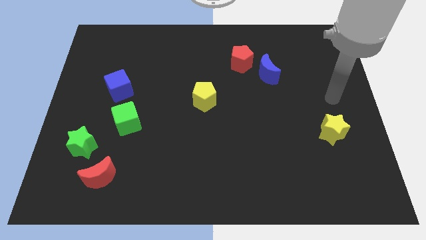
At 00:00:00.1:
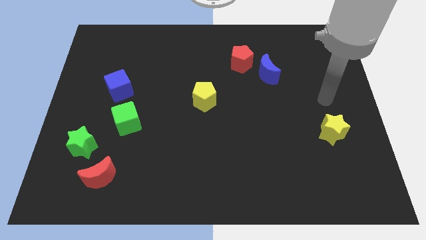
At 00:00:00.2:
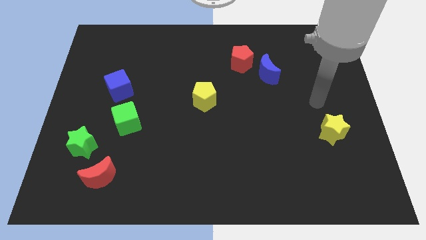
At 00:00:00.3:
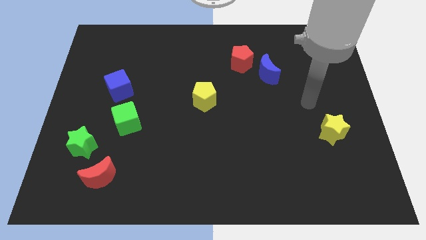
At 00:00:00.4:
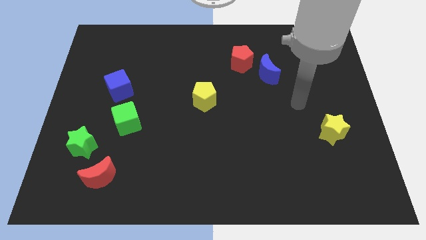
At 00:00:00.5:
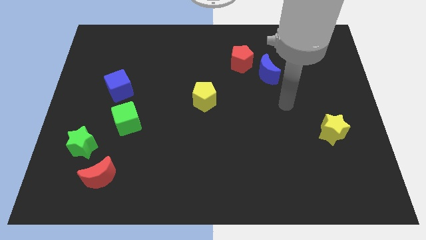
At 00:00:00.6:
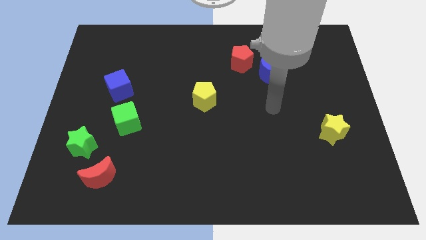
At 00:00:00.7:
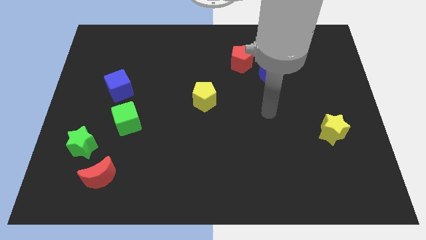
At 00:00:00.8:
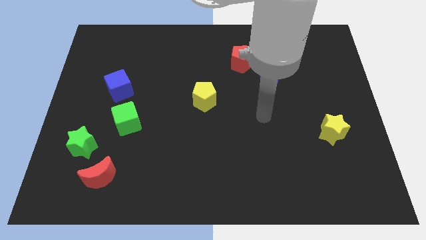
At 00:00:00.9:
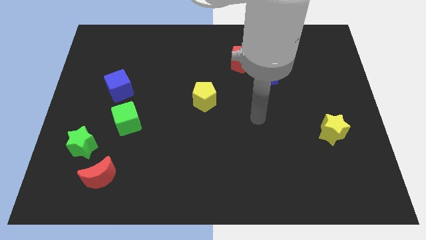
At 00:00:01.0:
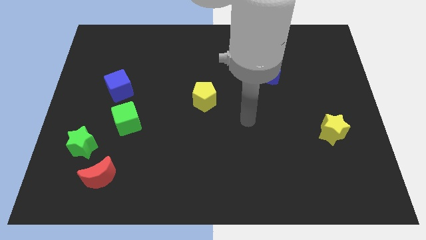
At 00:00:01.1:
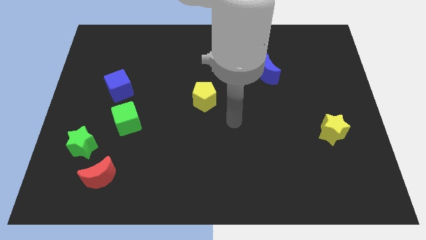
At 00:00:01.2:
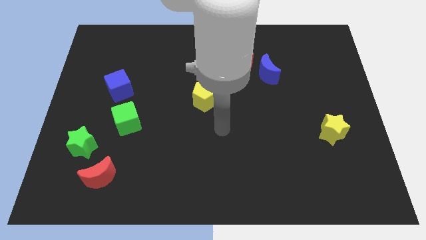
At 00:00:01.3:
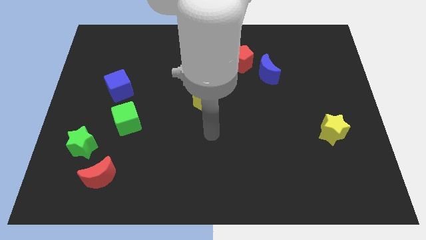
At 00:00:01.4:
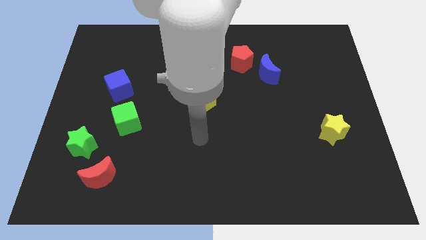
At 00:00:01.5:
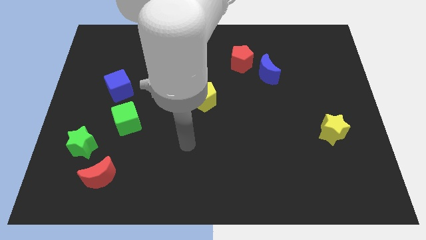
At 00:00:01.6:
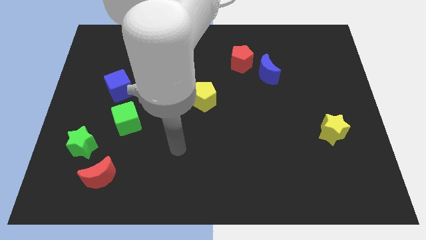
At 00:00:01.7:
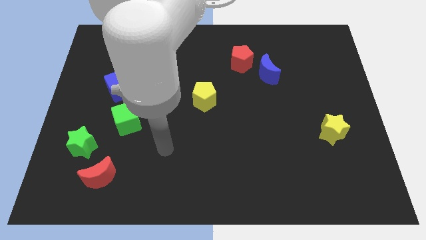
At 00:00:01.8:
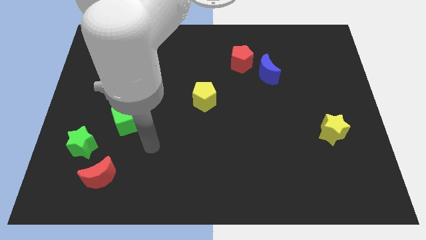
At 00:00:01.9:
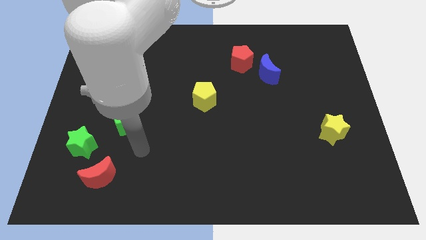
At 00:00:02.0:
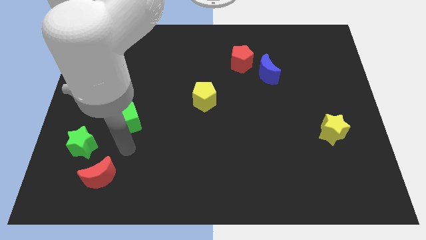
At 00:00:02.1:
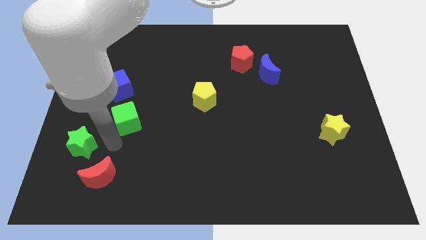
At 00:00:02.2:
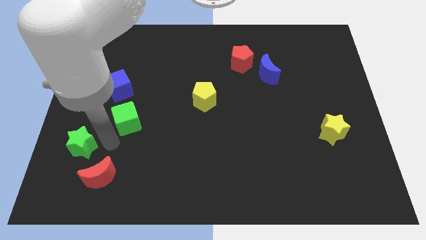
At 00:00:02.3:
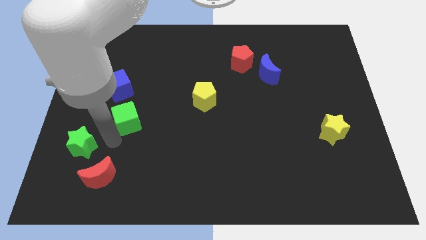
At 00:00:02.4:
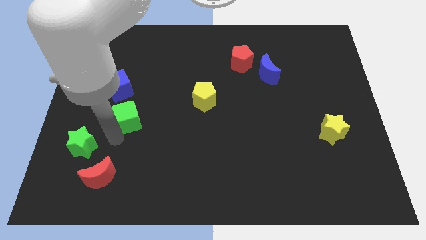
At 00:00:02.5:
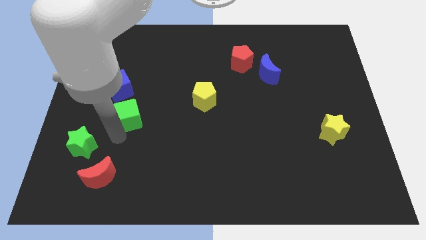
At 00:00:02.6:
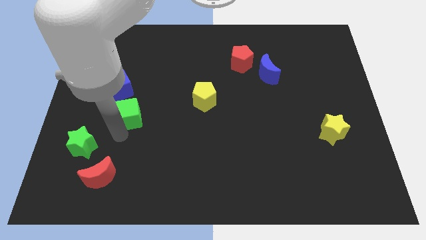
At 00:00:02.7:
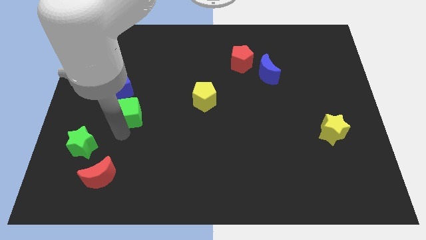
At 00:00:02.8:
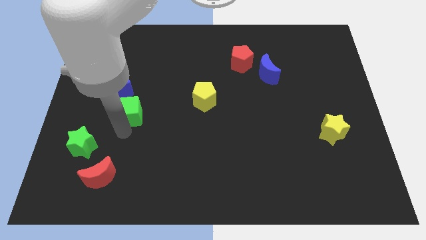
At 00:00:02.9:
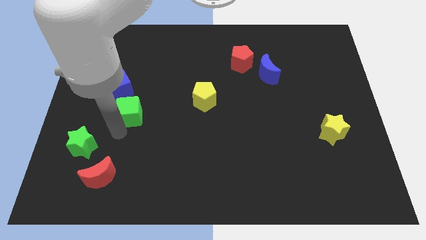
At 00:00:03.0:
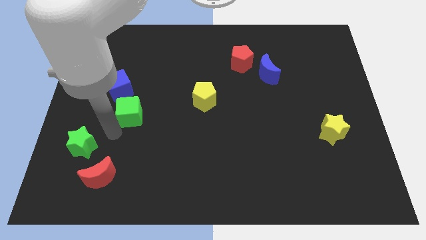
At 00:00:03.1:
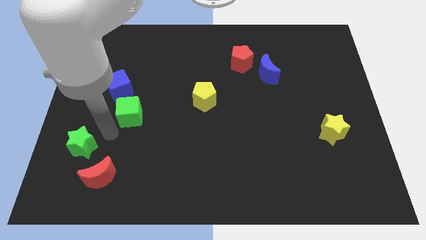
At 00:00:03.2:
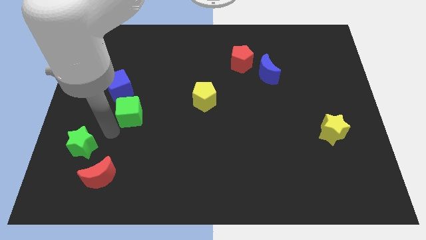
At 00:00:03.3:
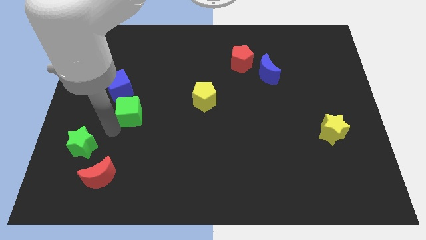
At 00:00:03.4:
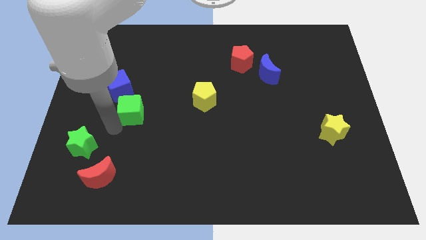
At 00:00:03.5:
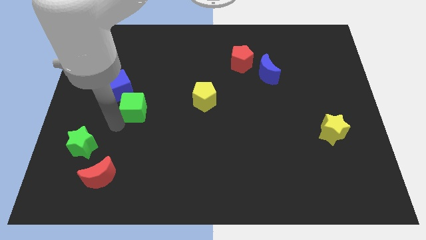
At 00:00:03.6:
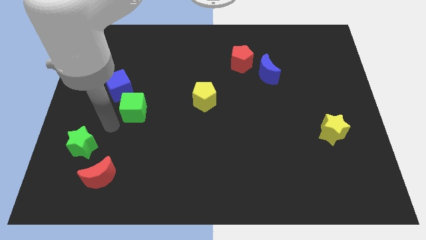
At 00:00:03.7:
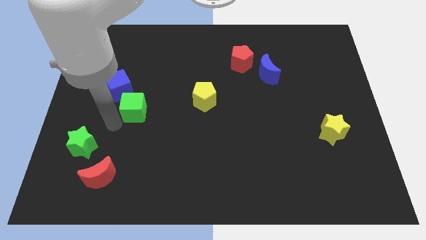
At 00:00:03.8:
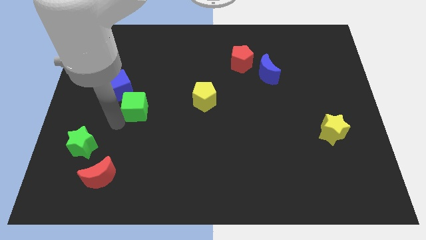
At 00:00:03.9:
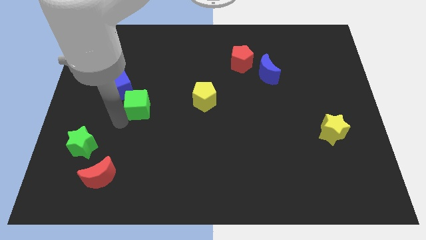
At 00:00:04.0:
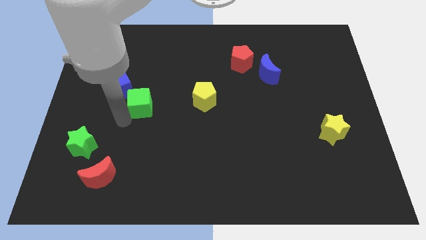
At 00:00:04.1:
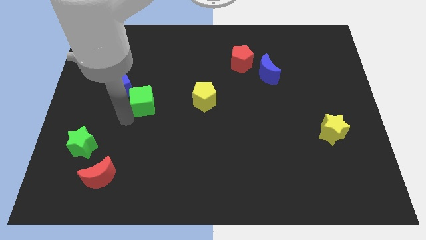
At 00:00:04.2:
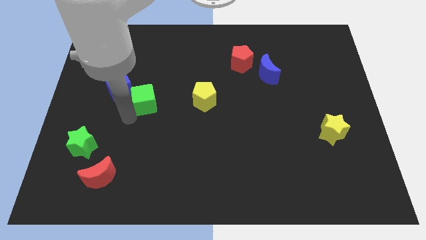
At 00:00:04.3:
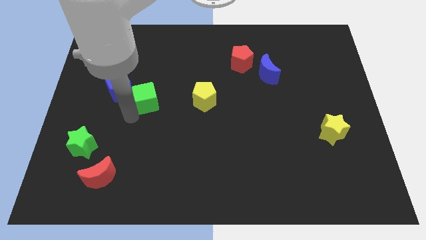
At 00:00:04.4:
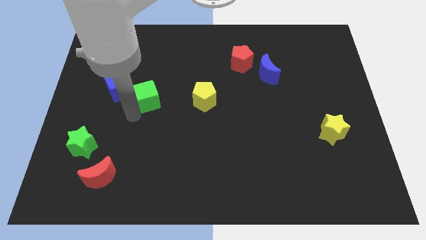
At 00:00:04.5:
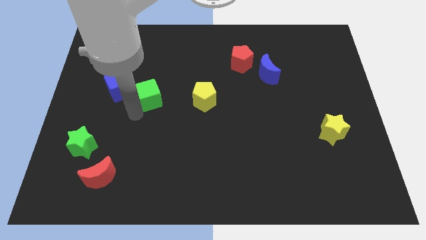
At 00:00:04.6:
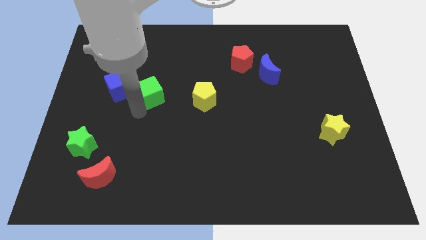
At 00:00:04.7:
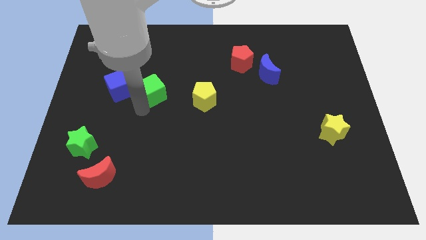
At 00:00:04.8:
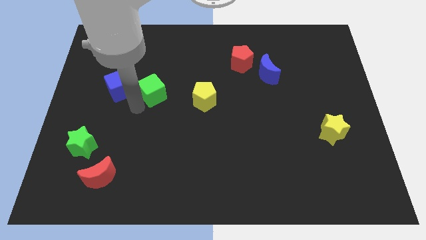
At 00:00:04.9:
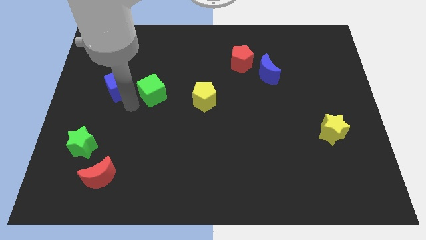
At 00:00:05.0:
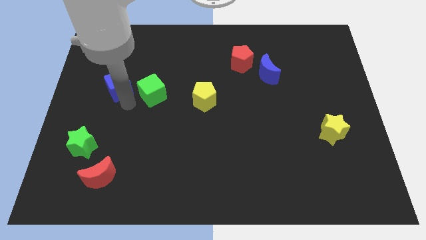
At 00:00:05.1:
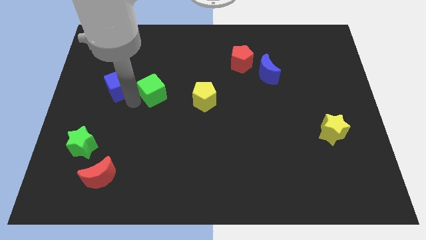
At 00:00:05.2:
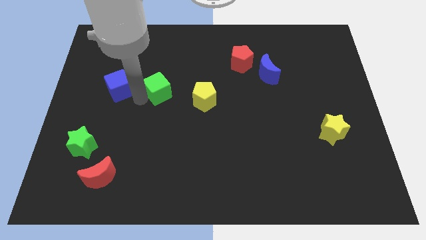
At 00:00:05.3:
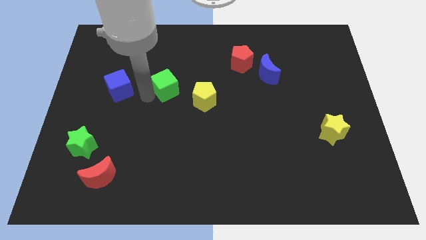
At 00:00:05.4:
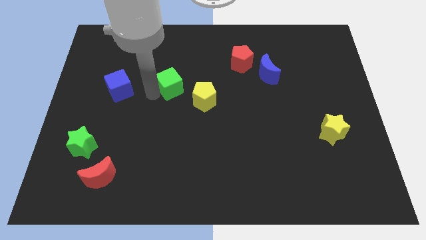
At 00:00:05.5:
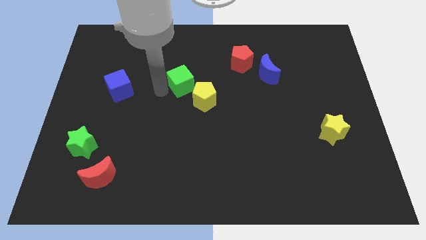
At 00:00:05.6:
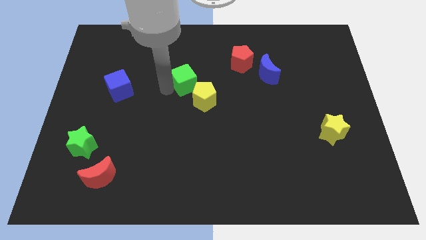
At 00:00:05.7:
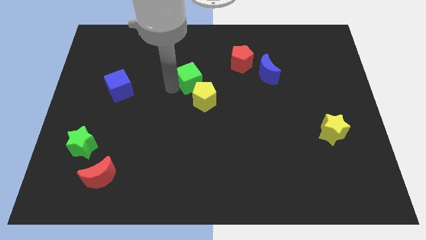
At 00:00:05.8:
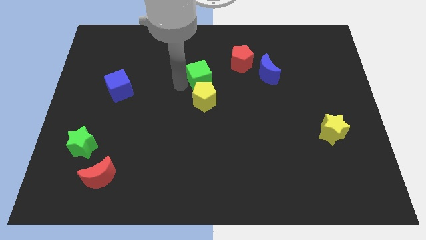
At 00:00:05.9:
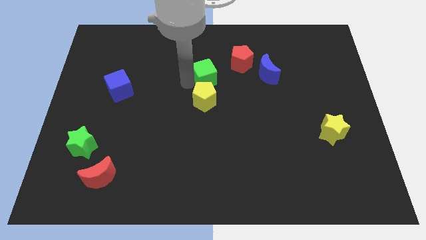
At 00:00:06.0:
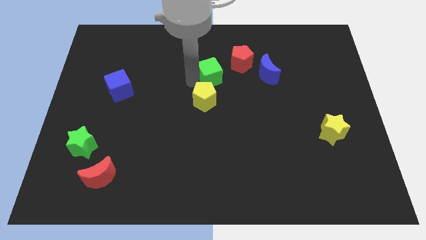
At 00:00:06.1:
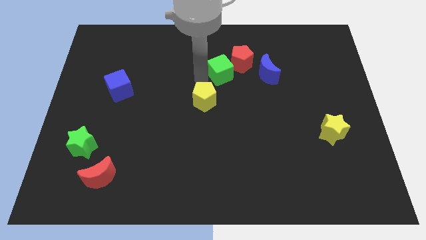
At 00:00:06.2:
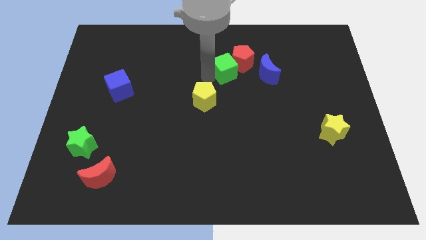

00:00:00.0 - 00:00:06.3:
push the green cube towards the red pentagon
